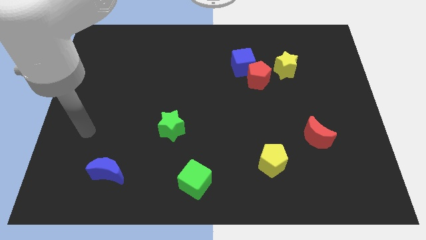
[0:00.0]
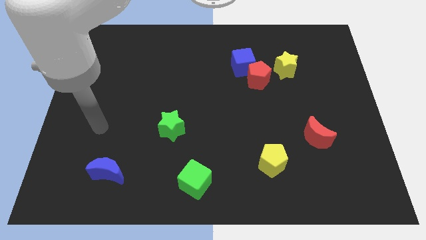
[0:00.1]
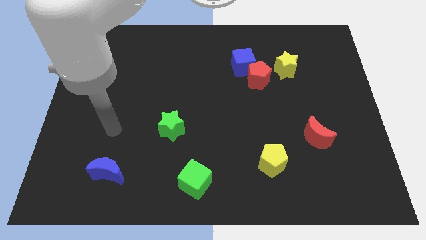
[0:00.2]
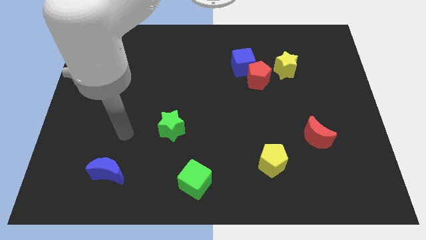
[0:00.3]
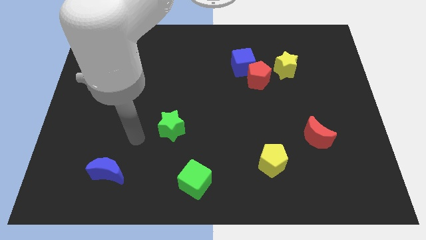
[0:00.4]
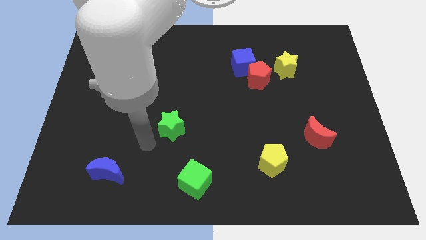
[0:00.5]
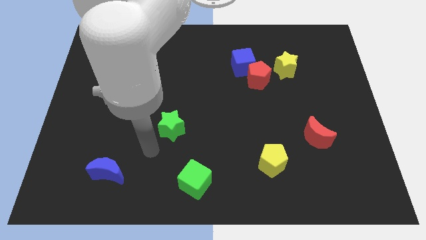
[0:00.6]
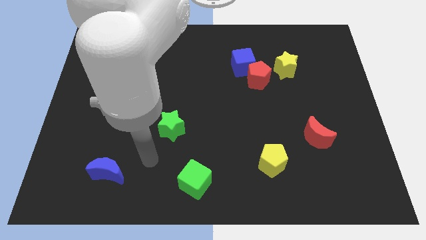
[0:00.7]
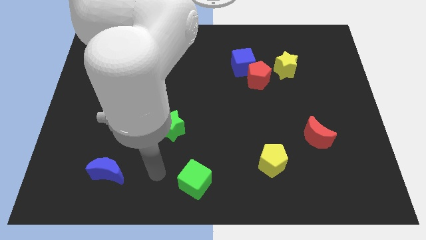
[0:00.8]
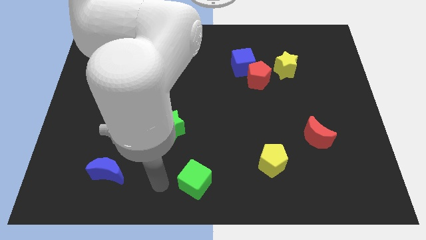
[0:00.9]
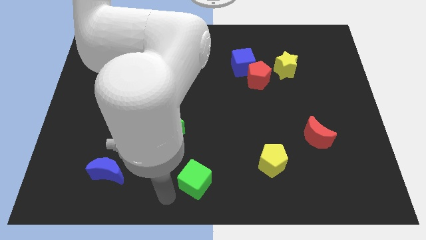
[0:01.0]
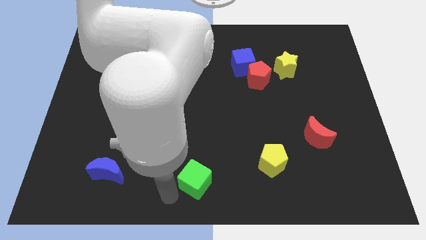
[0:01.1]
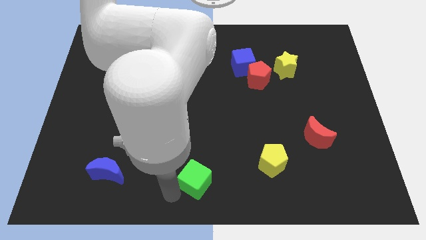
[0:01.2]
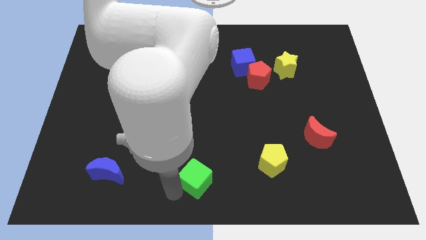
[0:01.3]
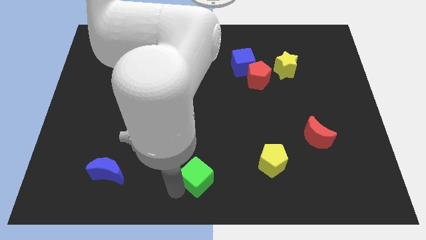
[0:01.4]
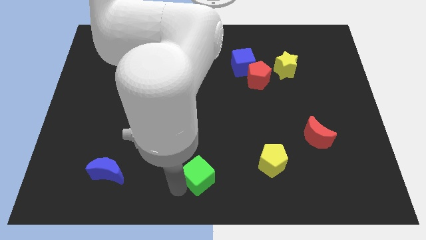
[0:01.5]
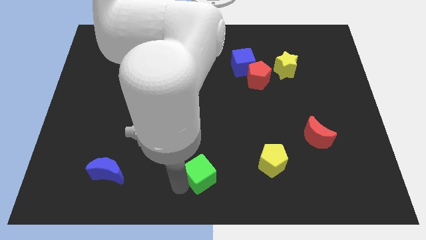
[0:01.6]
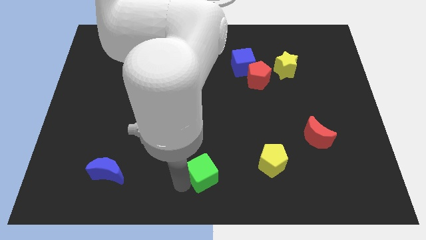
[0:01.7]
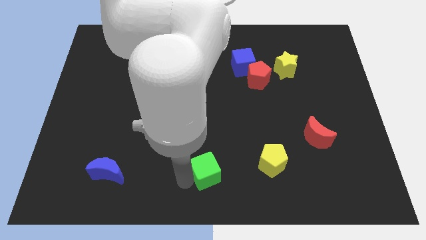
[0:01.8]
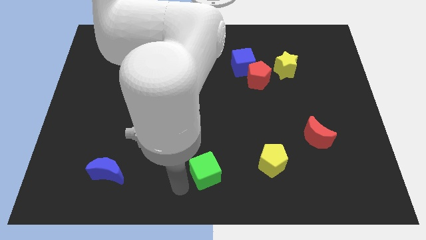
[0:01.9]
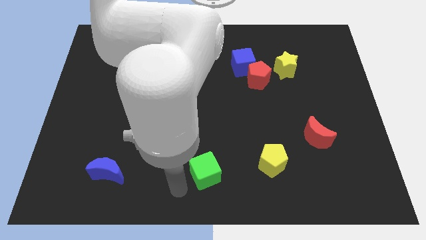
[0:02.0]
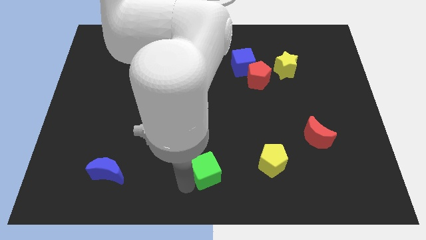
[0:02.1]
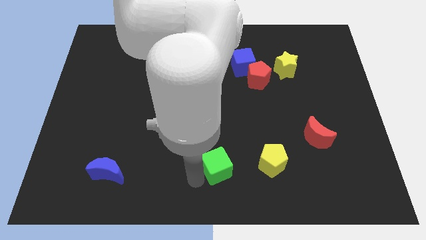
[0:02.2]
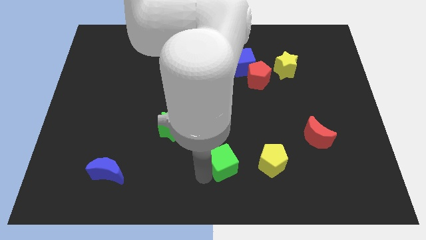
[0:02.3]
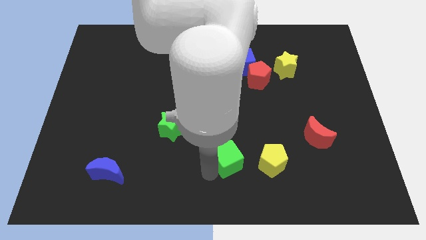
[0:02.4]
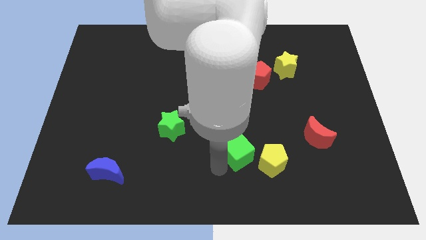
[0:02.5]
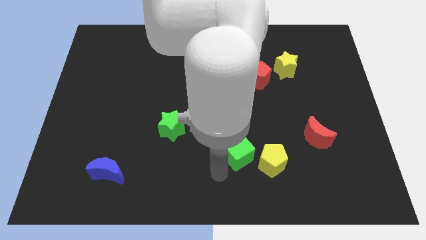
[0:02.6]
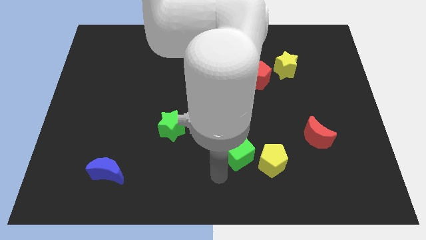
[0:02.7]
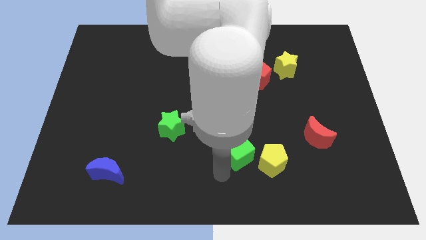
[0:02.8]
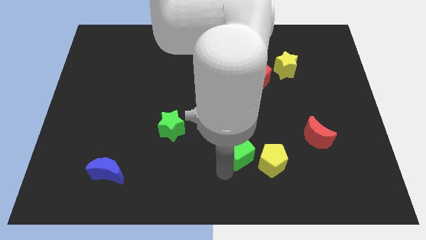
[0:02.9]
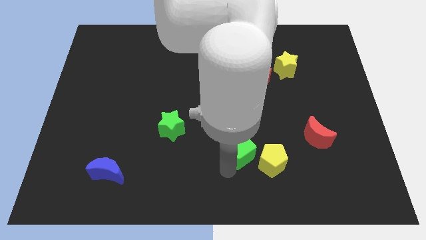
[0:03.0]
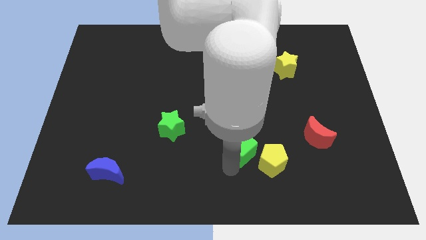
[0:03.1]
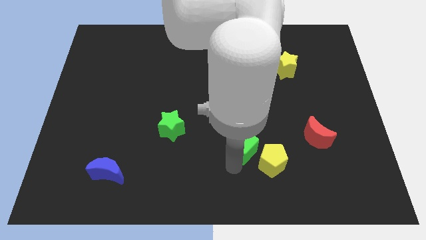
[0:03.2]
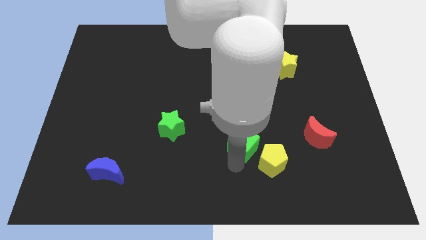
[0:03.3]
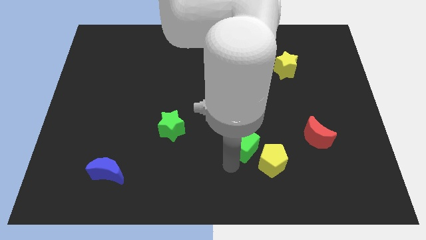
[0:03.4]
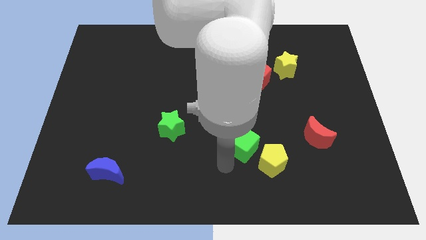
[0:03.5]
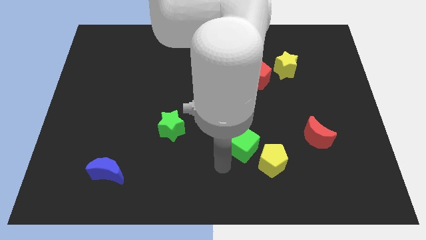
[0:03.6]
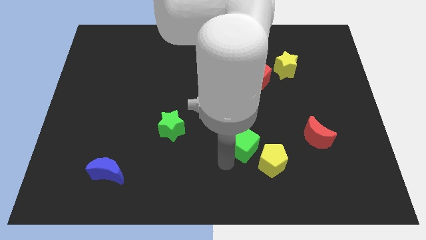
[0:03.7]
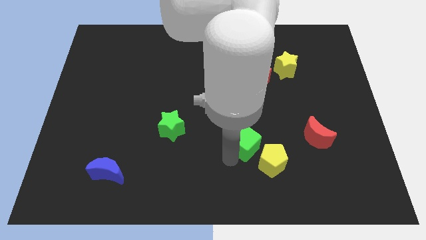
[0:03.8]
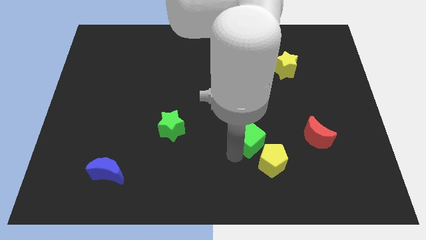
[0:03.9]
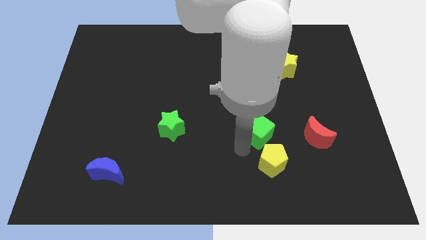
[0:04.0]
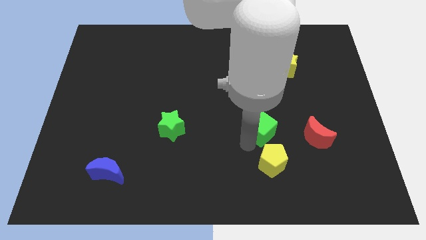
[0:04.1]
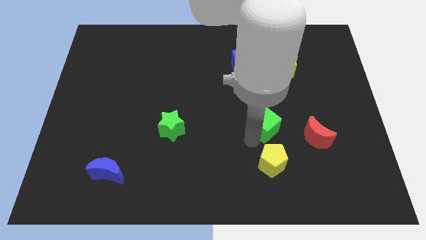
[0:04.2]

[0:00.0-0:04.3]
slide the green cube upwards and then to the right

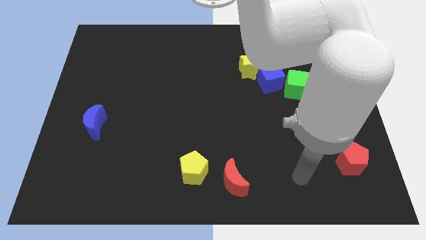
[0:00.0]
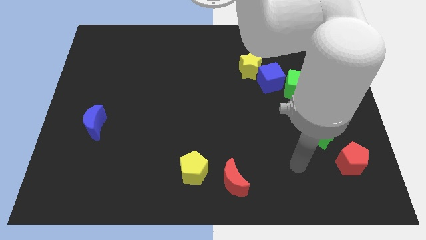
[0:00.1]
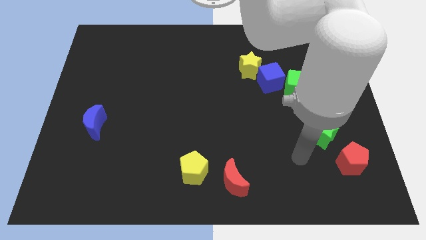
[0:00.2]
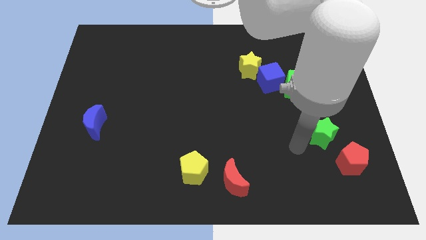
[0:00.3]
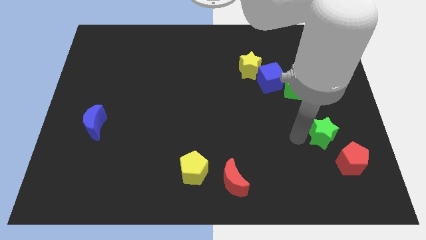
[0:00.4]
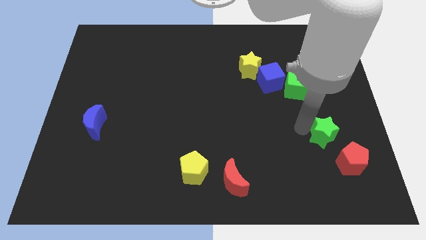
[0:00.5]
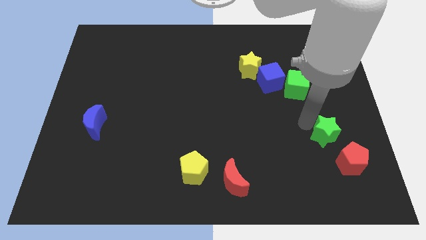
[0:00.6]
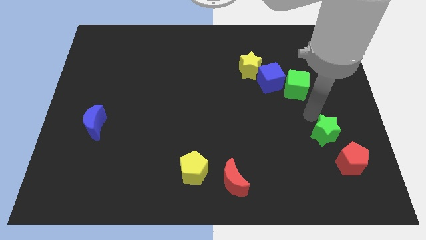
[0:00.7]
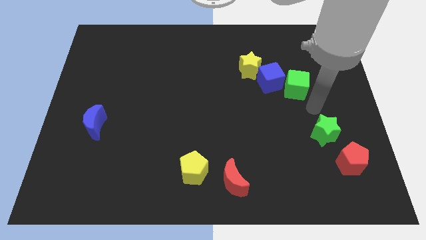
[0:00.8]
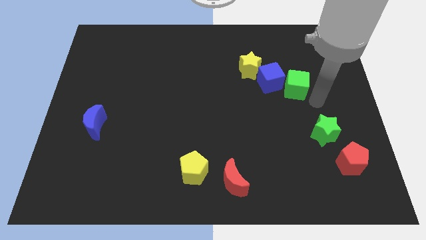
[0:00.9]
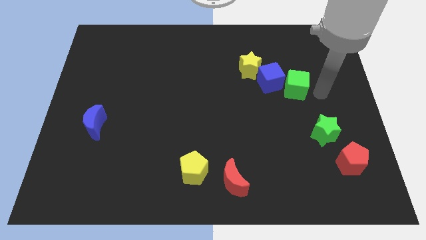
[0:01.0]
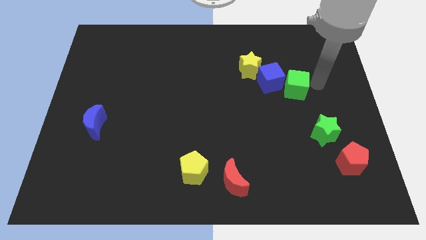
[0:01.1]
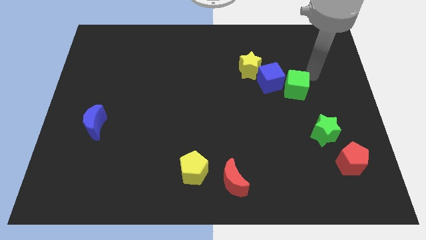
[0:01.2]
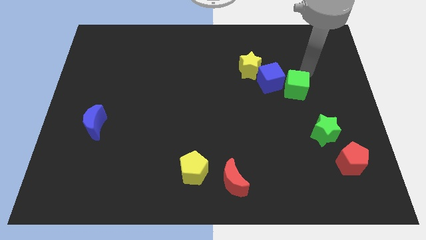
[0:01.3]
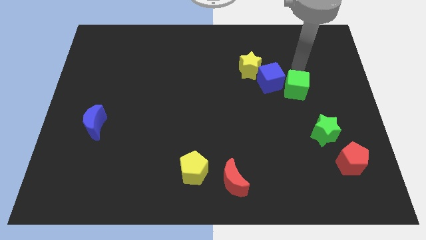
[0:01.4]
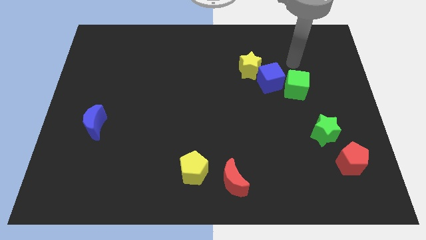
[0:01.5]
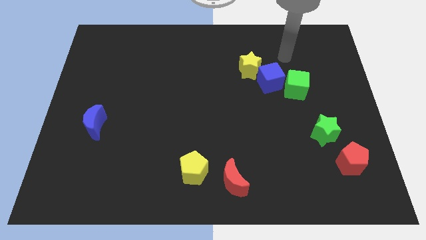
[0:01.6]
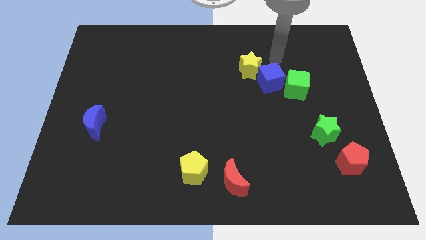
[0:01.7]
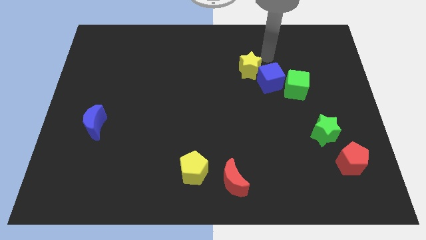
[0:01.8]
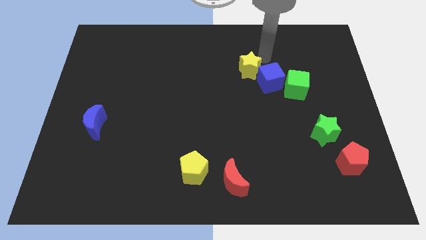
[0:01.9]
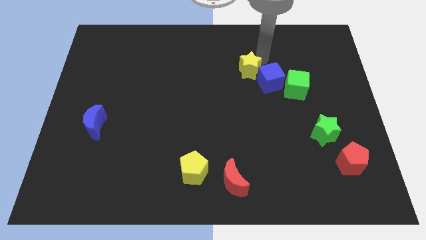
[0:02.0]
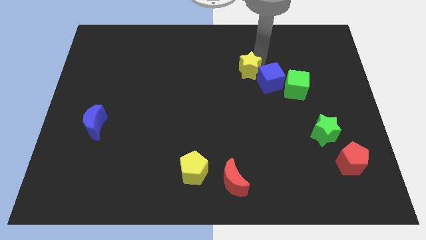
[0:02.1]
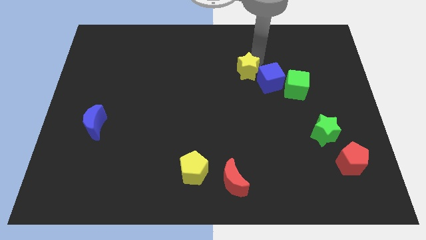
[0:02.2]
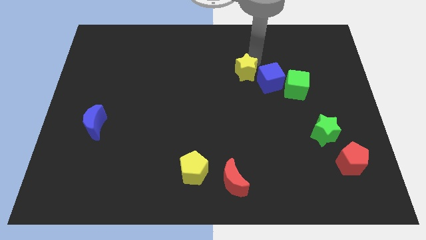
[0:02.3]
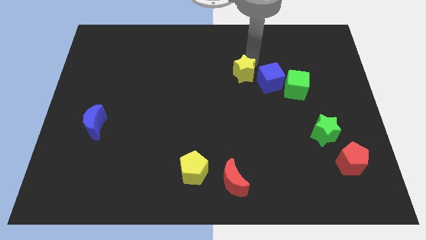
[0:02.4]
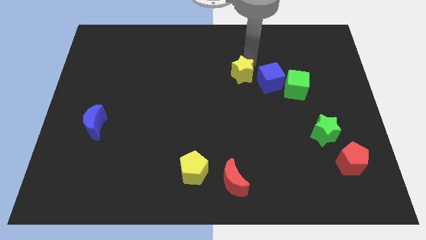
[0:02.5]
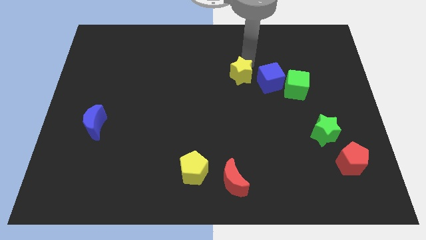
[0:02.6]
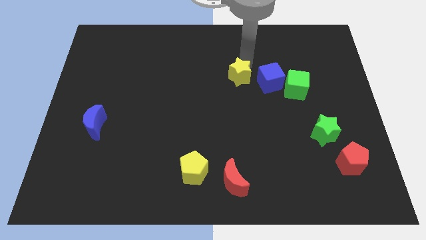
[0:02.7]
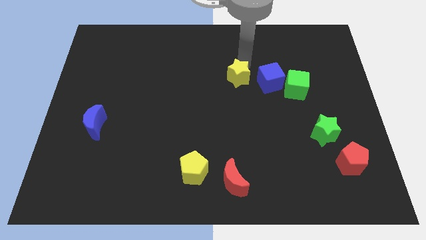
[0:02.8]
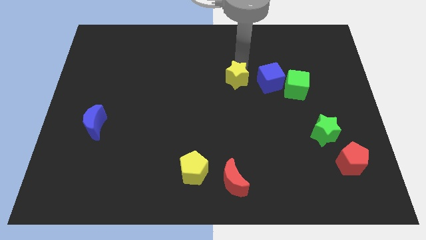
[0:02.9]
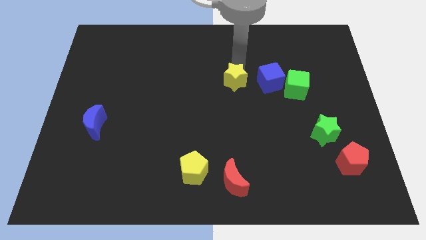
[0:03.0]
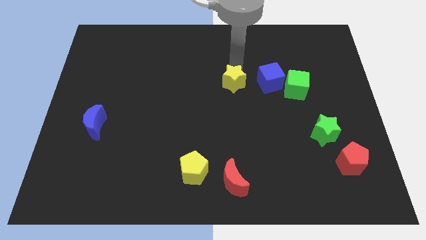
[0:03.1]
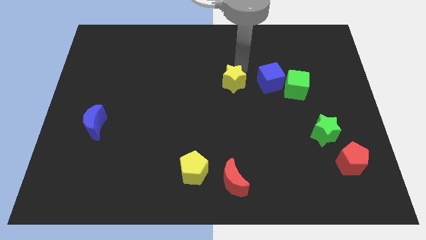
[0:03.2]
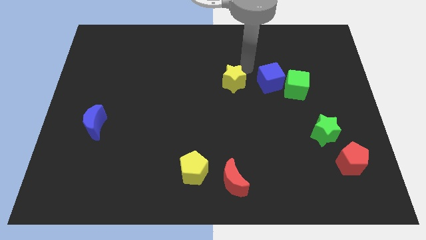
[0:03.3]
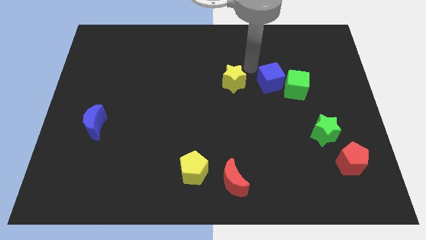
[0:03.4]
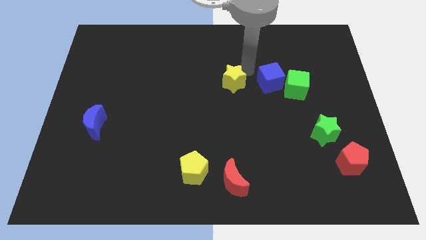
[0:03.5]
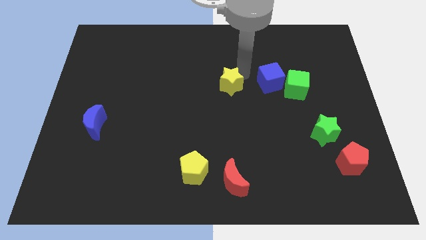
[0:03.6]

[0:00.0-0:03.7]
move the yellow star a bit downwards and then to the left
